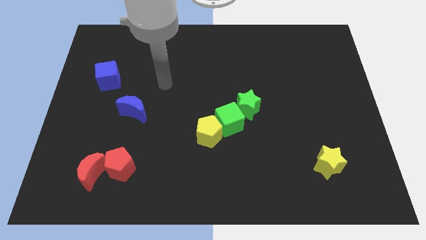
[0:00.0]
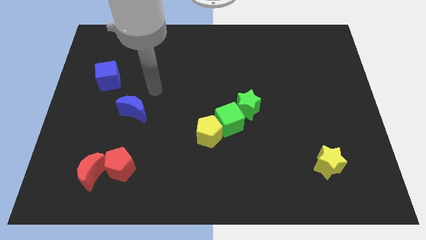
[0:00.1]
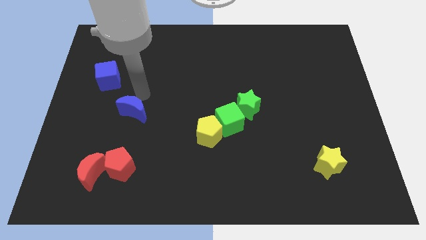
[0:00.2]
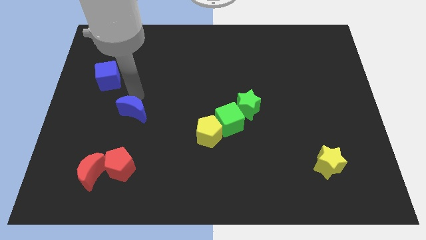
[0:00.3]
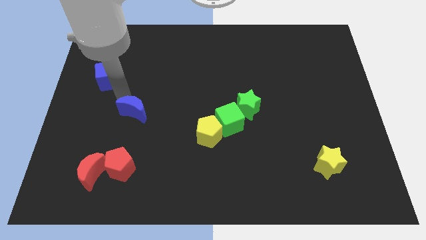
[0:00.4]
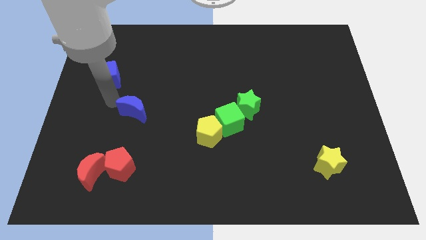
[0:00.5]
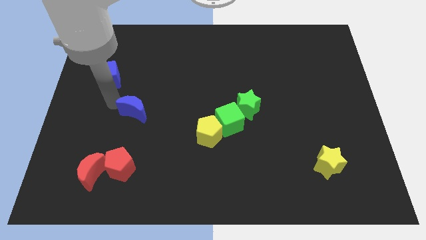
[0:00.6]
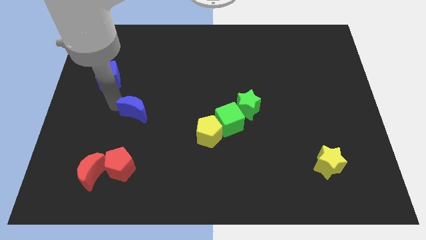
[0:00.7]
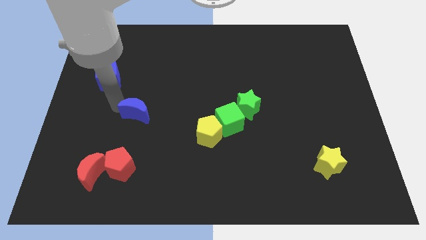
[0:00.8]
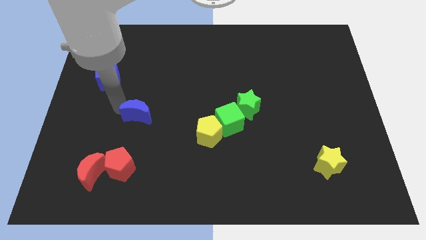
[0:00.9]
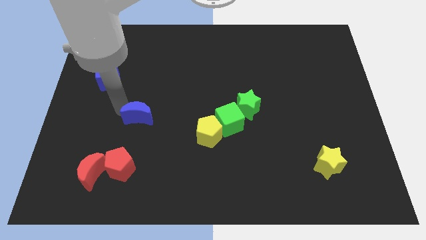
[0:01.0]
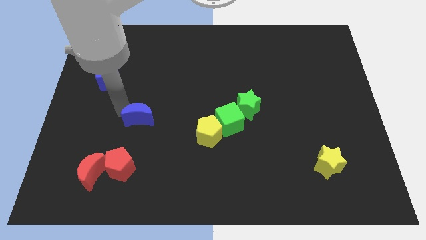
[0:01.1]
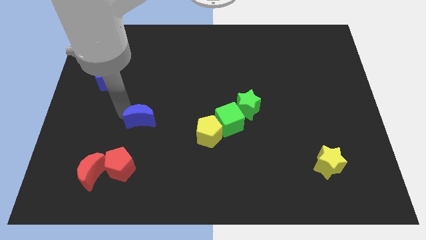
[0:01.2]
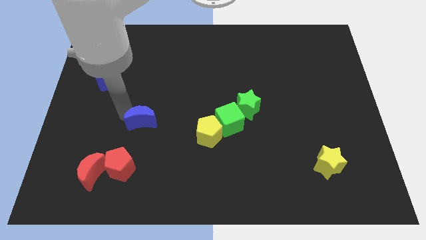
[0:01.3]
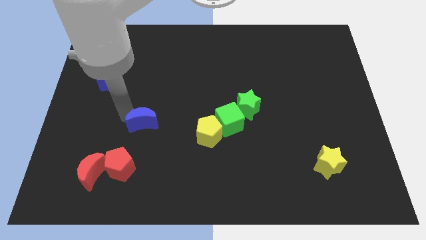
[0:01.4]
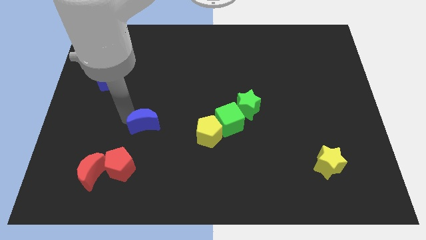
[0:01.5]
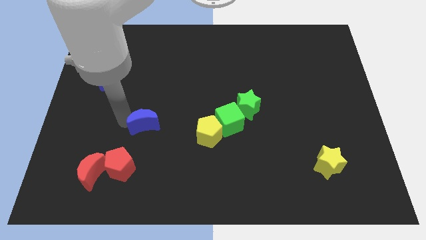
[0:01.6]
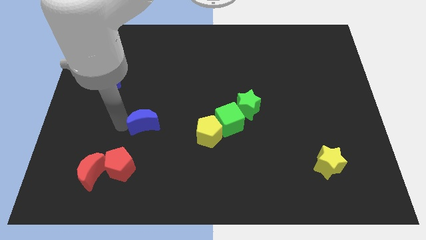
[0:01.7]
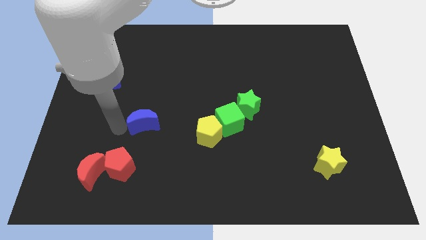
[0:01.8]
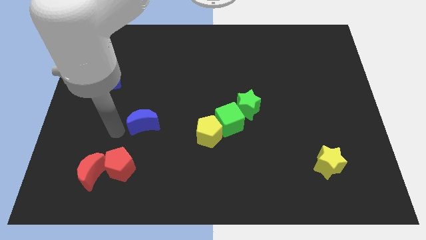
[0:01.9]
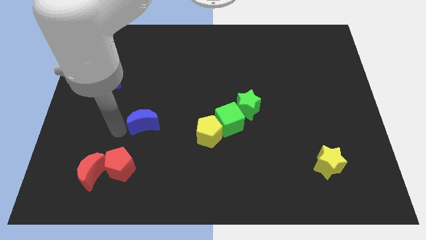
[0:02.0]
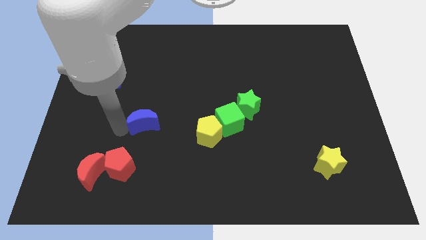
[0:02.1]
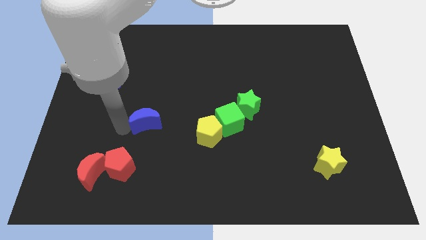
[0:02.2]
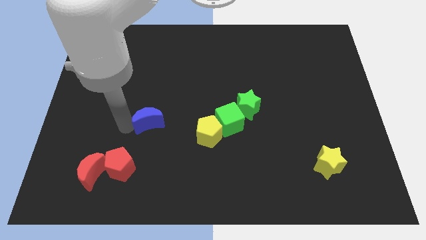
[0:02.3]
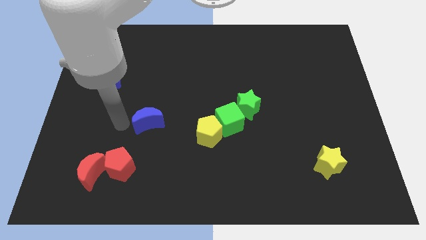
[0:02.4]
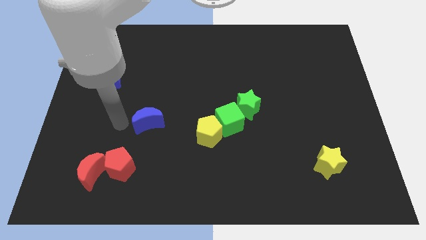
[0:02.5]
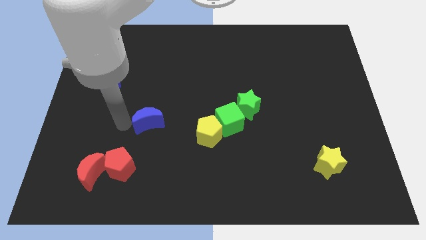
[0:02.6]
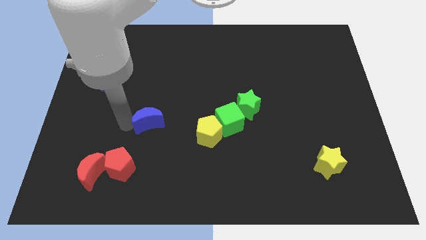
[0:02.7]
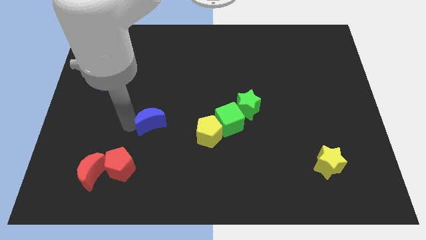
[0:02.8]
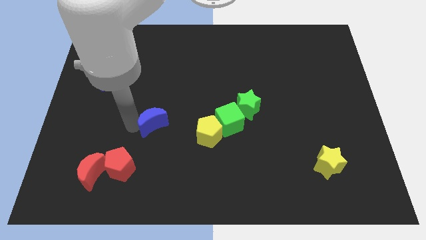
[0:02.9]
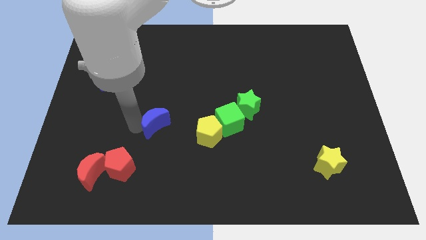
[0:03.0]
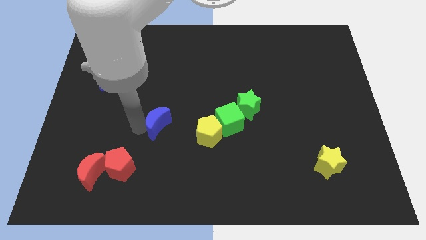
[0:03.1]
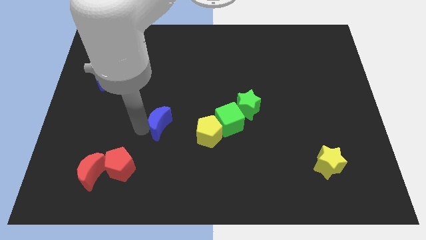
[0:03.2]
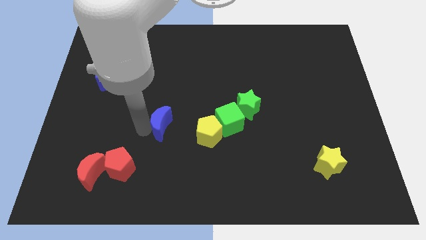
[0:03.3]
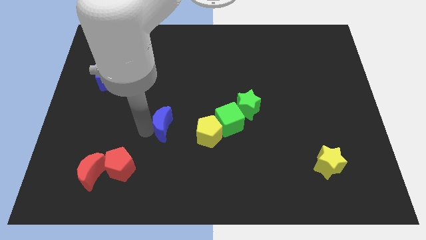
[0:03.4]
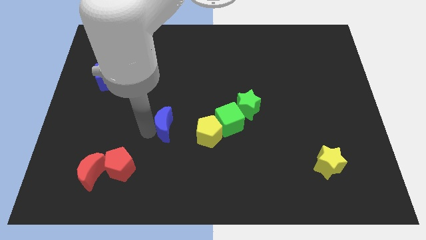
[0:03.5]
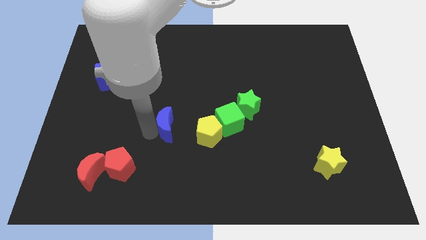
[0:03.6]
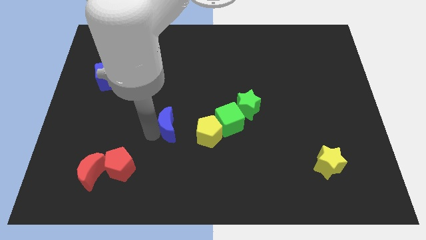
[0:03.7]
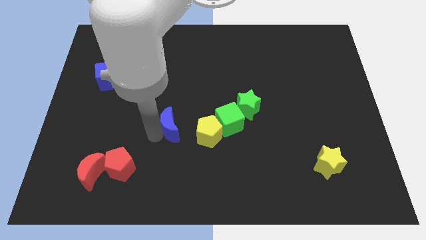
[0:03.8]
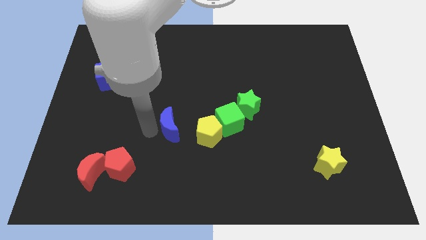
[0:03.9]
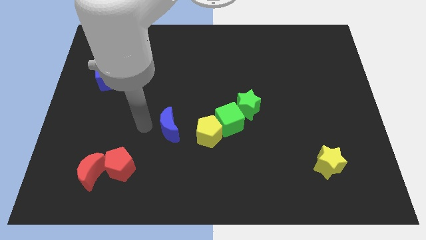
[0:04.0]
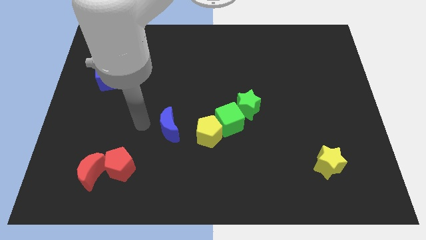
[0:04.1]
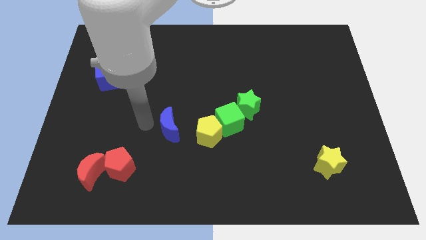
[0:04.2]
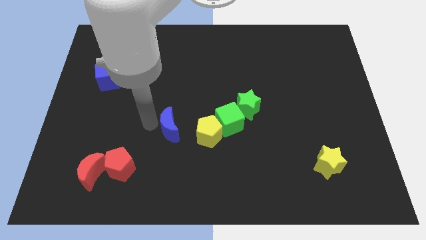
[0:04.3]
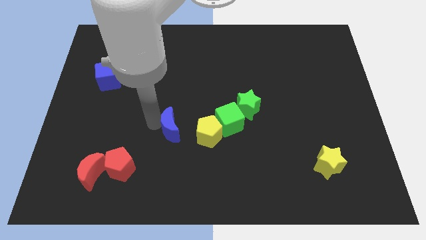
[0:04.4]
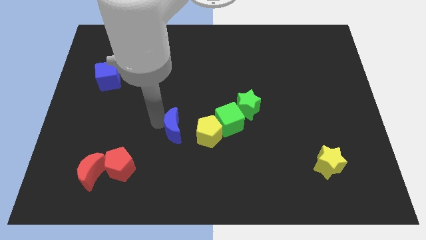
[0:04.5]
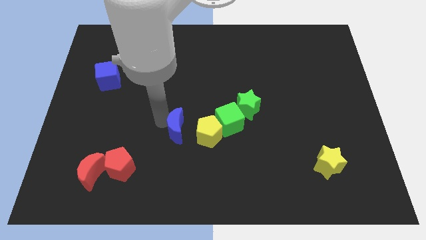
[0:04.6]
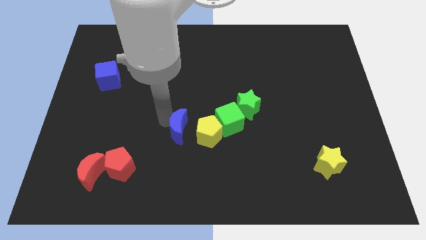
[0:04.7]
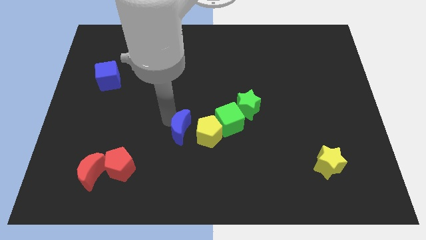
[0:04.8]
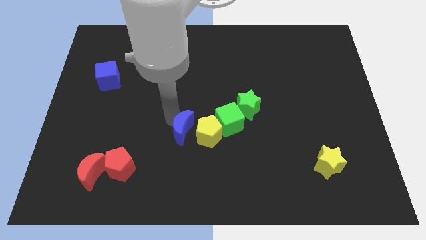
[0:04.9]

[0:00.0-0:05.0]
move the blue moon towards the yellow pentagon

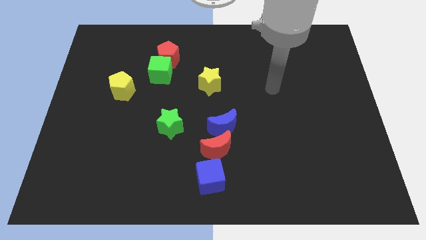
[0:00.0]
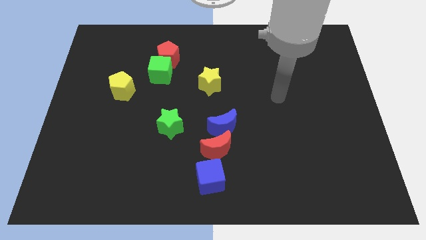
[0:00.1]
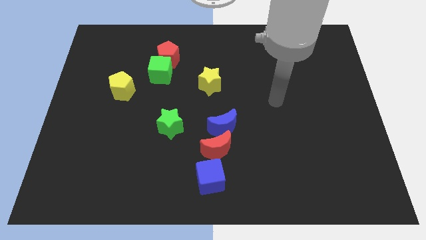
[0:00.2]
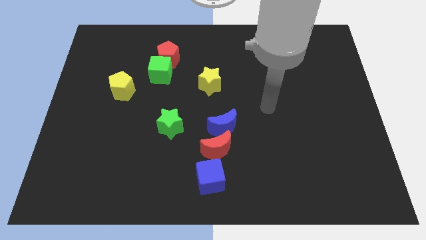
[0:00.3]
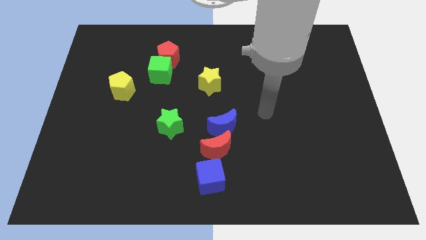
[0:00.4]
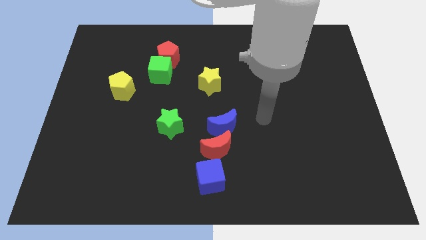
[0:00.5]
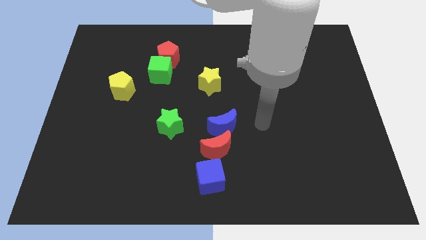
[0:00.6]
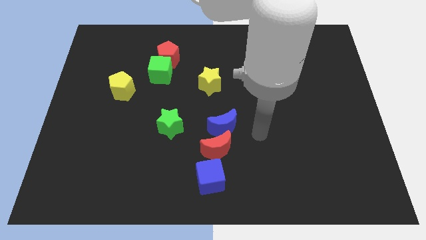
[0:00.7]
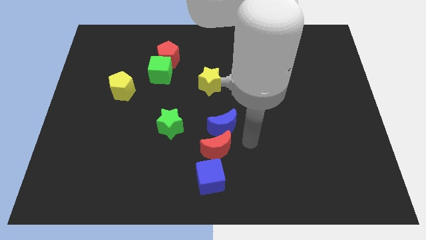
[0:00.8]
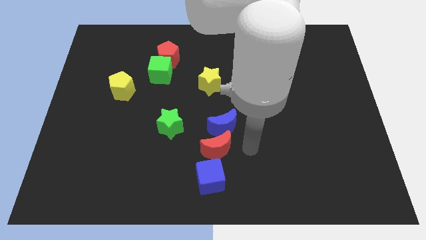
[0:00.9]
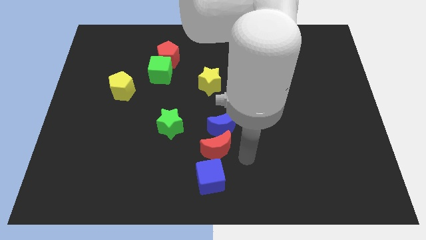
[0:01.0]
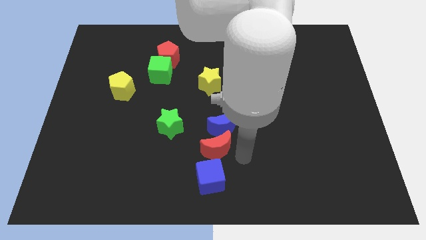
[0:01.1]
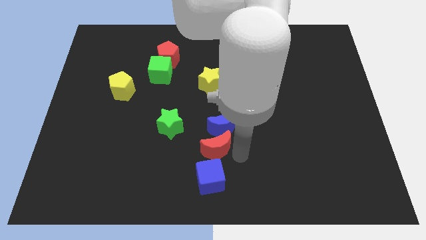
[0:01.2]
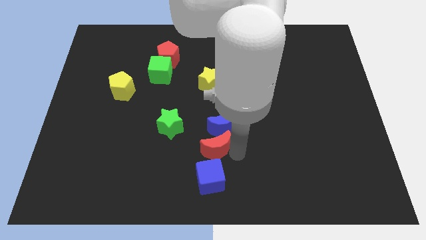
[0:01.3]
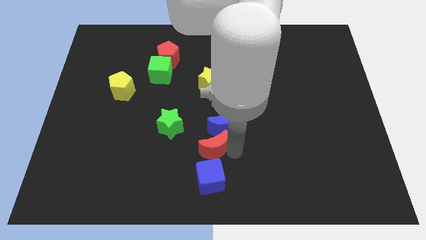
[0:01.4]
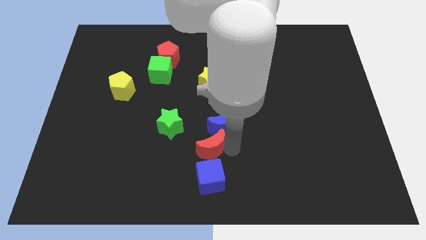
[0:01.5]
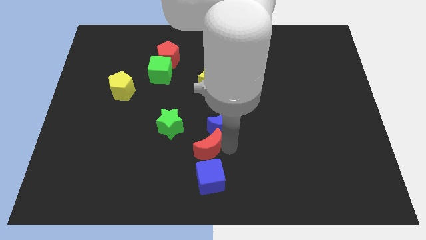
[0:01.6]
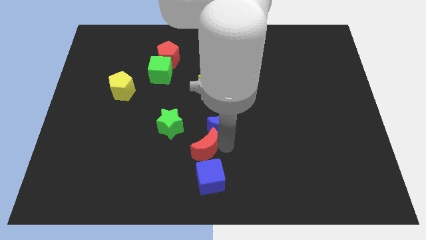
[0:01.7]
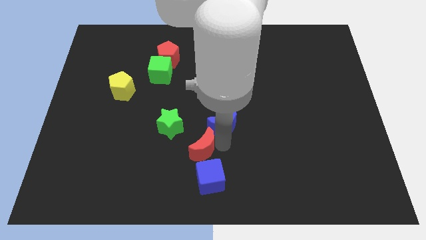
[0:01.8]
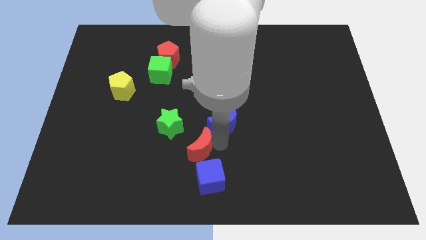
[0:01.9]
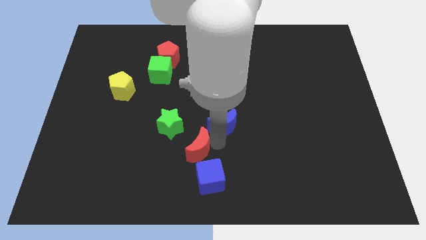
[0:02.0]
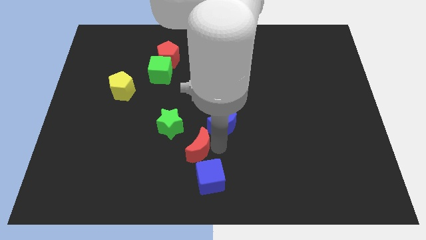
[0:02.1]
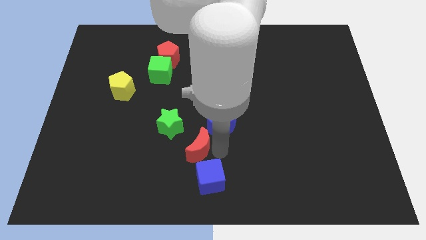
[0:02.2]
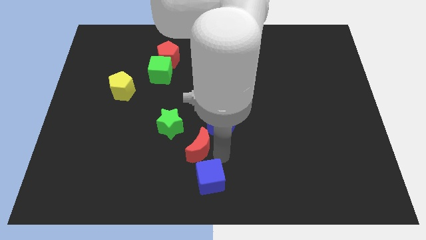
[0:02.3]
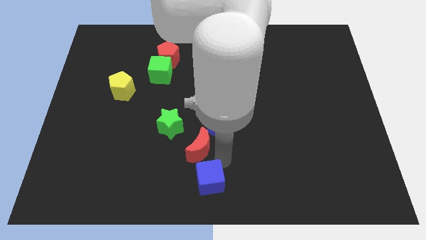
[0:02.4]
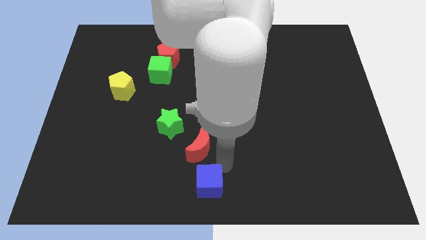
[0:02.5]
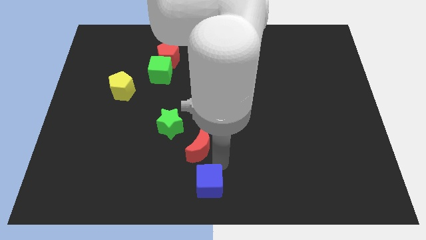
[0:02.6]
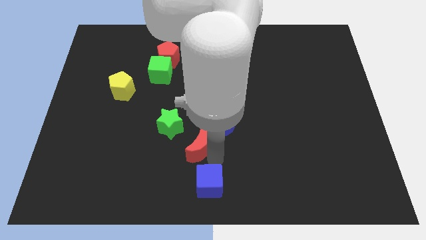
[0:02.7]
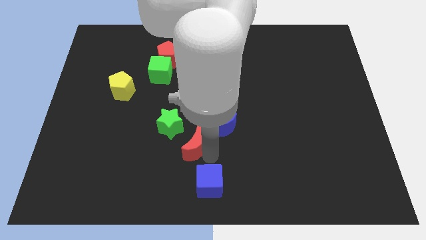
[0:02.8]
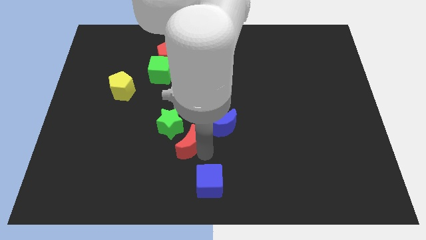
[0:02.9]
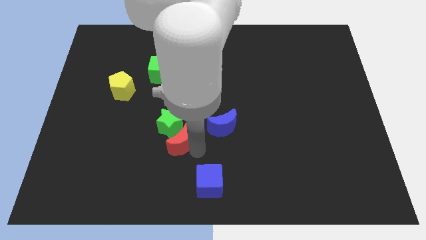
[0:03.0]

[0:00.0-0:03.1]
put the red moon next to the green star

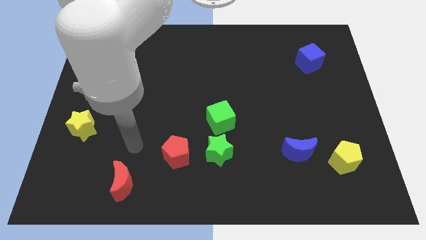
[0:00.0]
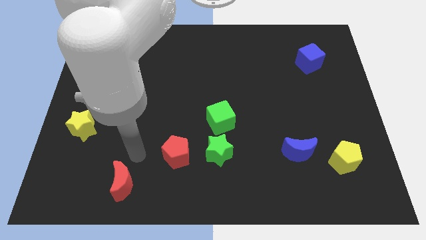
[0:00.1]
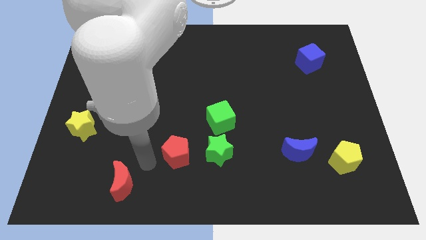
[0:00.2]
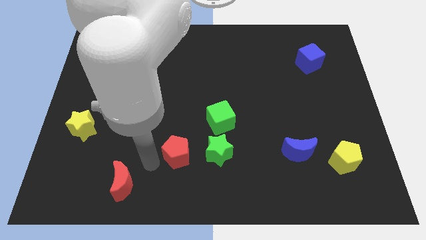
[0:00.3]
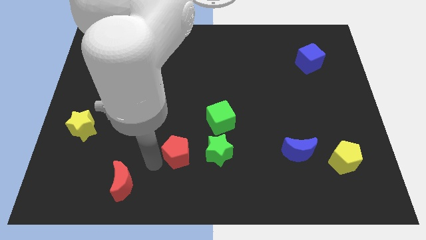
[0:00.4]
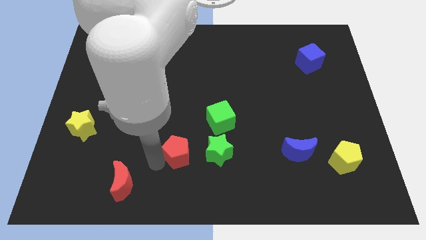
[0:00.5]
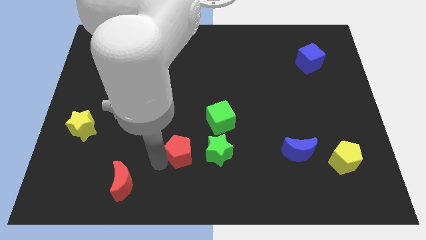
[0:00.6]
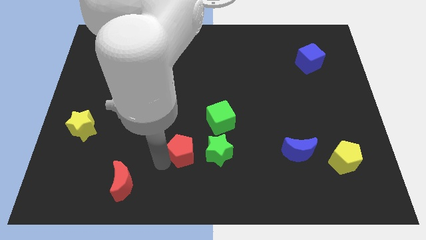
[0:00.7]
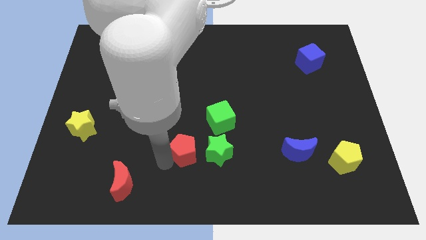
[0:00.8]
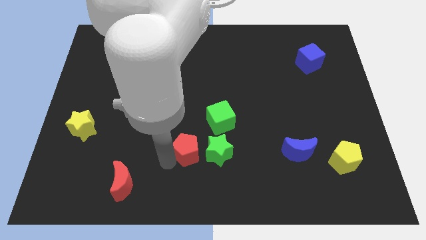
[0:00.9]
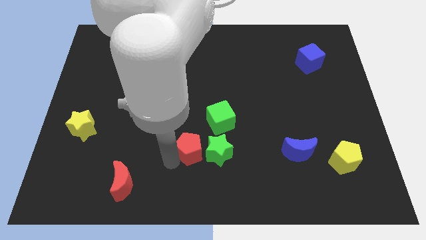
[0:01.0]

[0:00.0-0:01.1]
push the red pentagon to the green star
